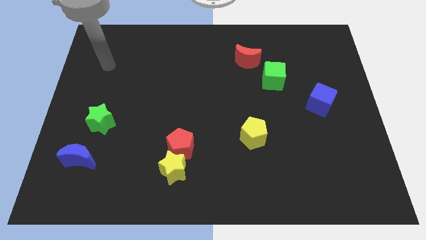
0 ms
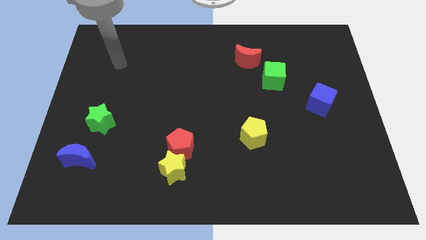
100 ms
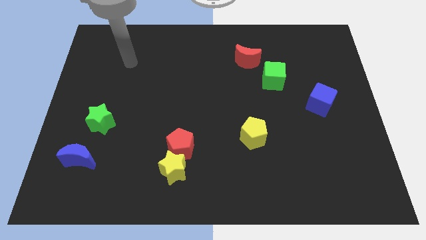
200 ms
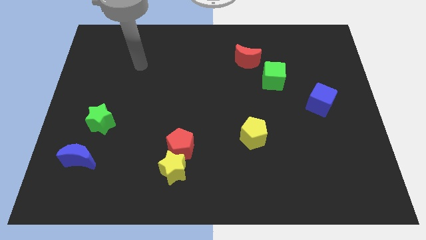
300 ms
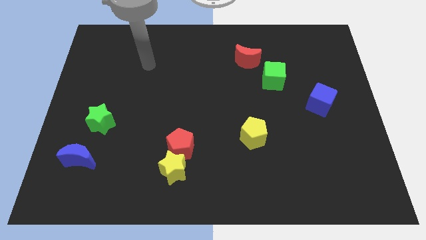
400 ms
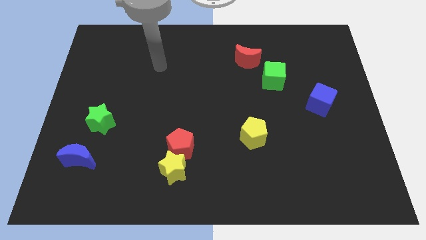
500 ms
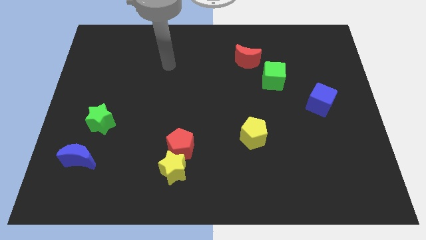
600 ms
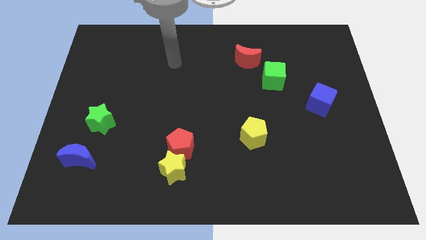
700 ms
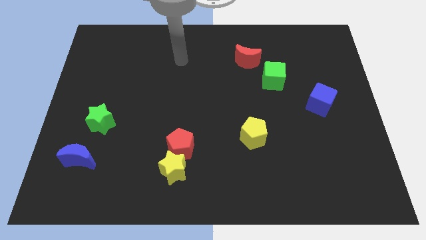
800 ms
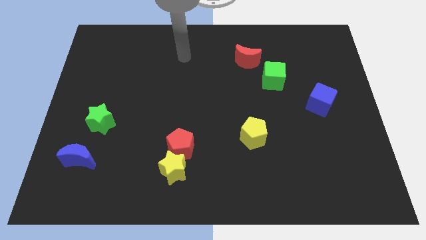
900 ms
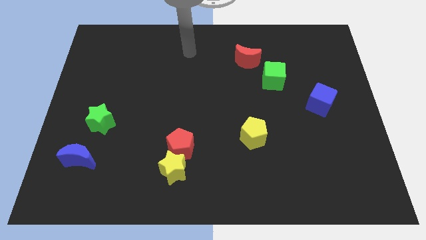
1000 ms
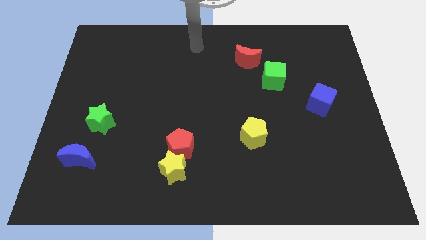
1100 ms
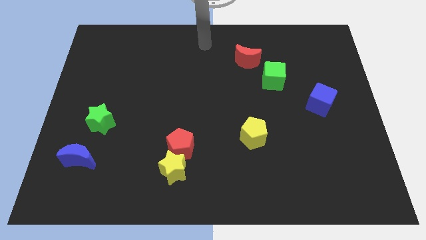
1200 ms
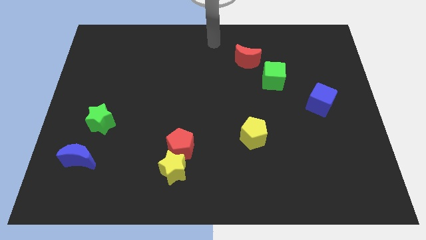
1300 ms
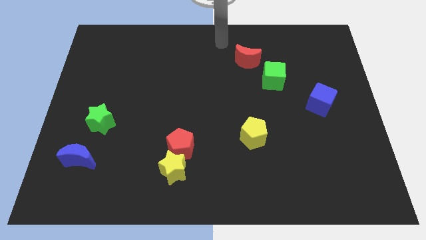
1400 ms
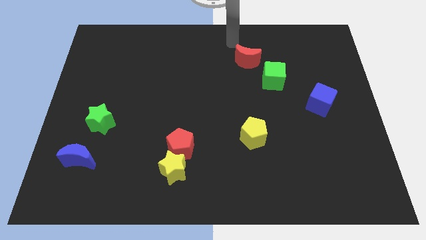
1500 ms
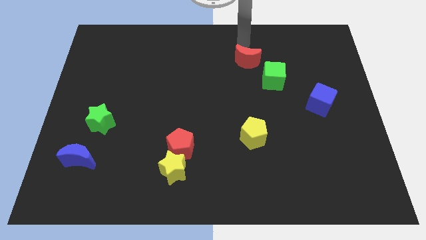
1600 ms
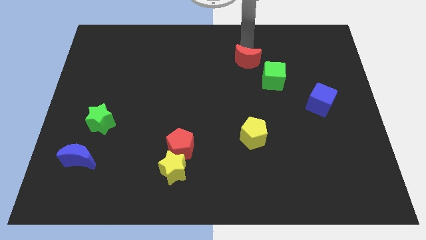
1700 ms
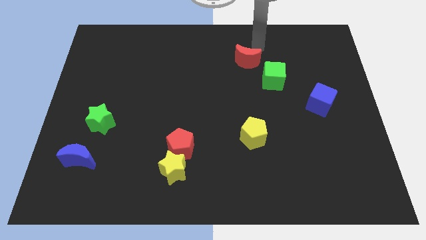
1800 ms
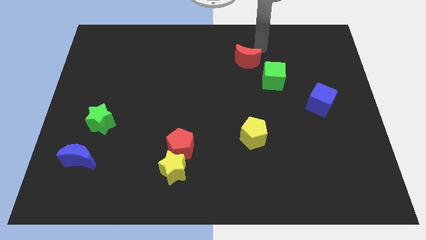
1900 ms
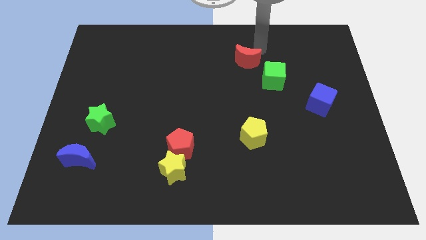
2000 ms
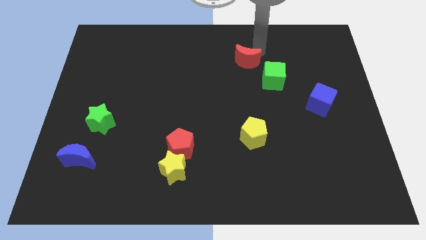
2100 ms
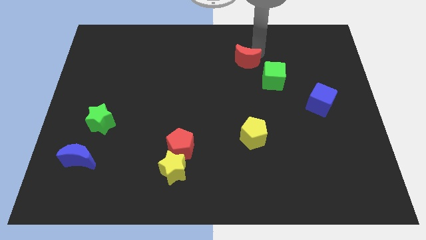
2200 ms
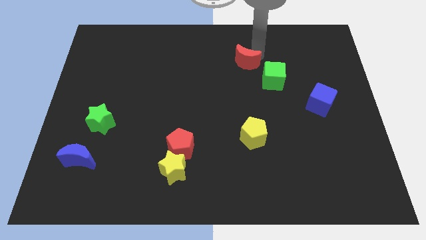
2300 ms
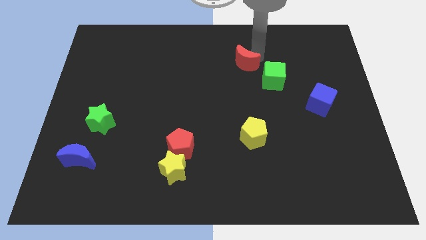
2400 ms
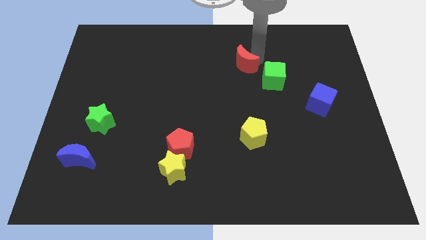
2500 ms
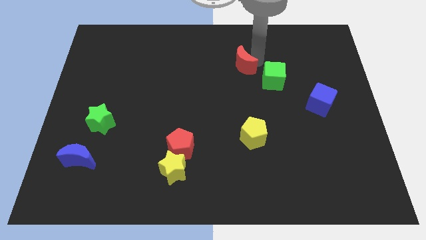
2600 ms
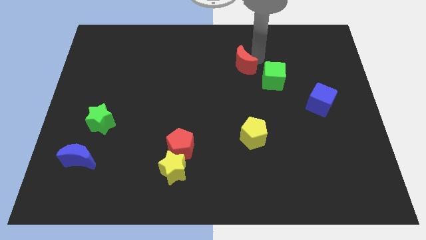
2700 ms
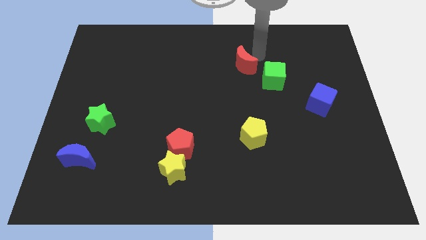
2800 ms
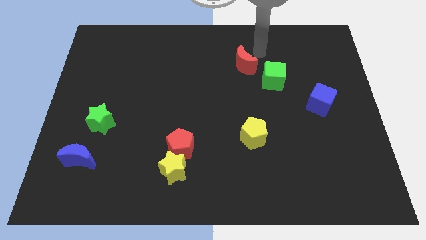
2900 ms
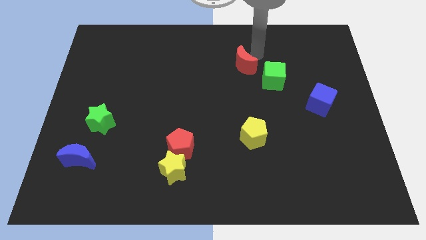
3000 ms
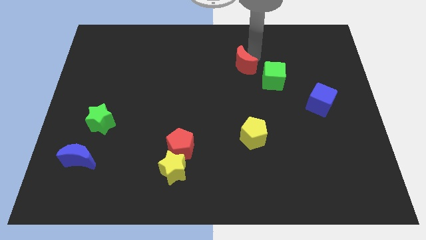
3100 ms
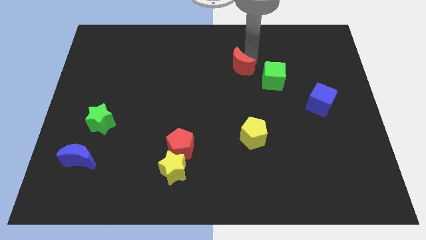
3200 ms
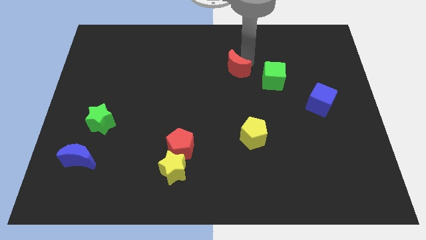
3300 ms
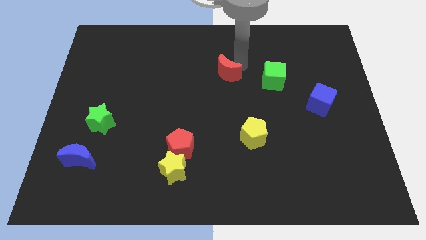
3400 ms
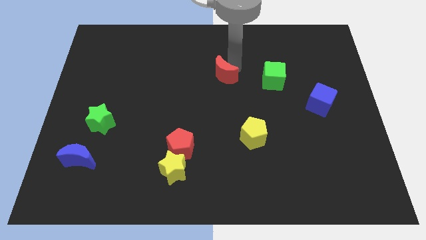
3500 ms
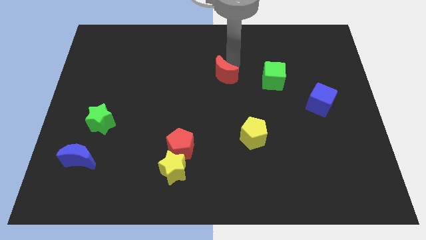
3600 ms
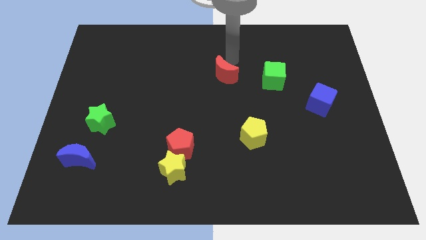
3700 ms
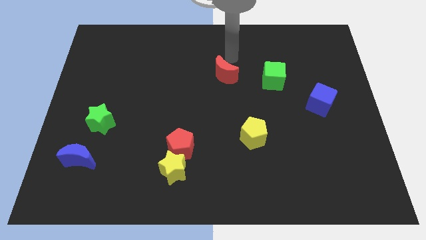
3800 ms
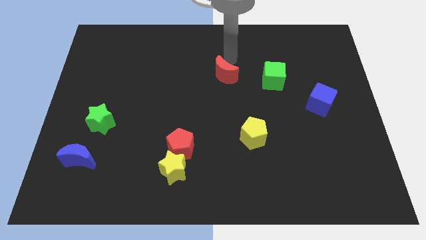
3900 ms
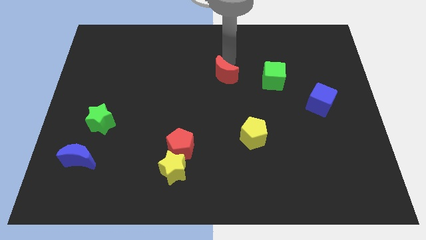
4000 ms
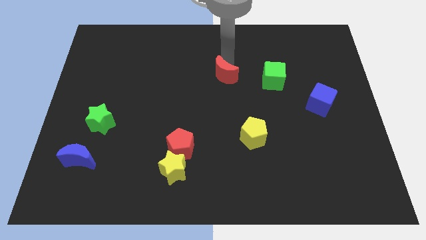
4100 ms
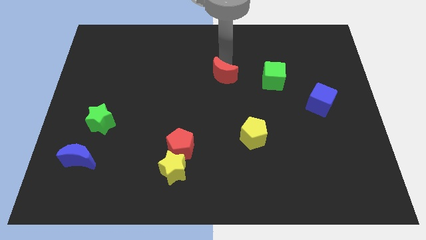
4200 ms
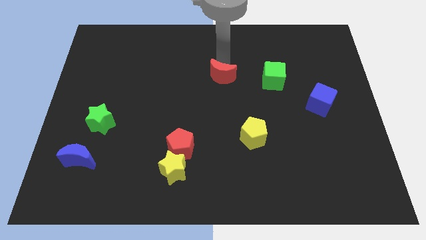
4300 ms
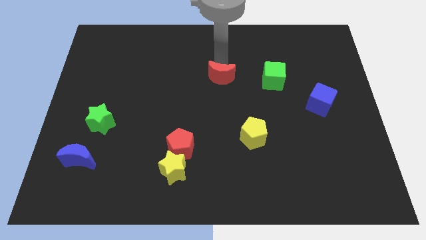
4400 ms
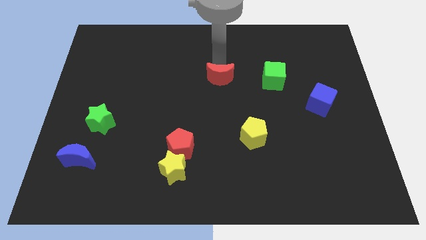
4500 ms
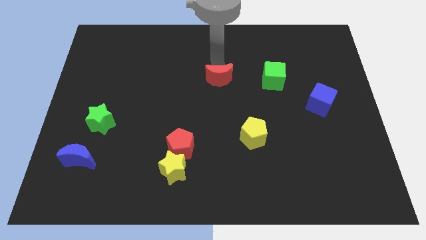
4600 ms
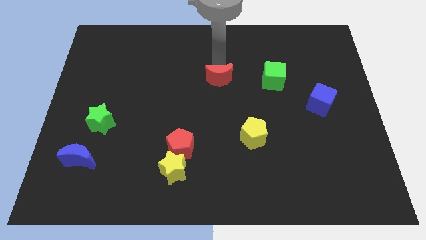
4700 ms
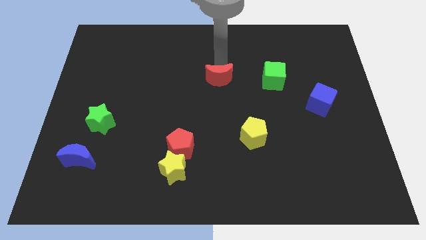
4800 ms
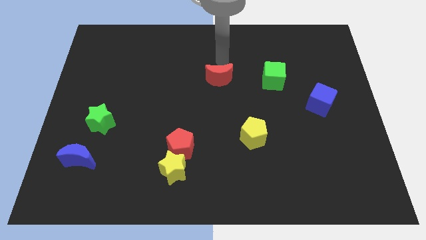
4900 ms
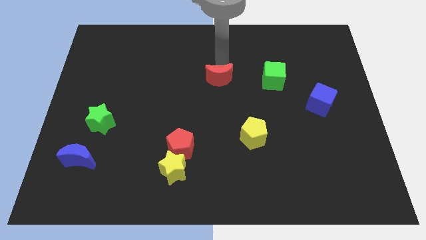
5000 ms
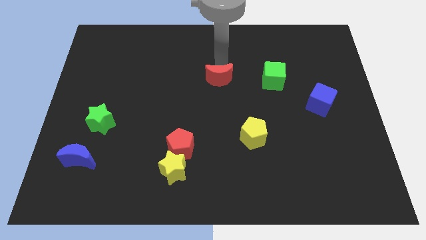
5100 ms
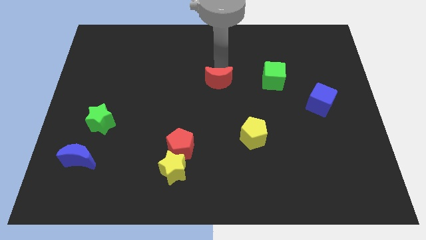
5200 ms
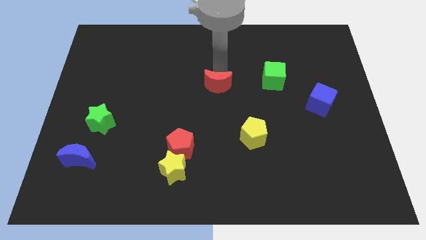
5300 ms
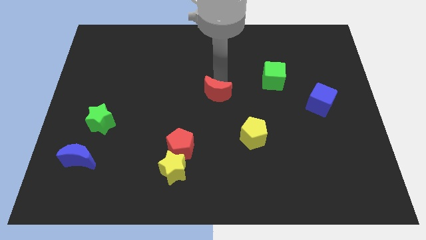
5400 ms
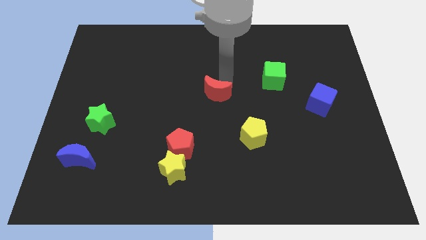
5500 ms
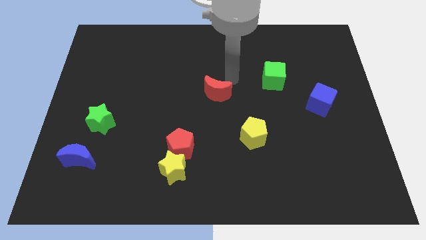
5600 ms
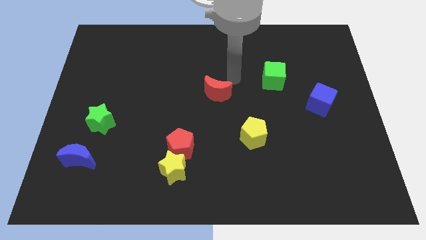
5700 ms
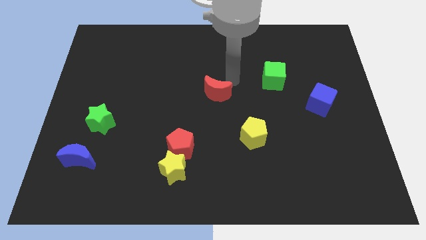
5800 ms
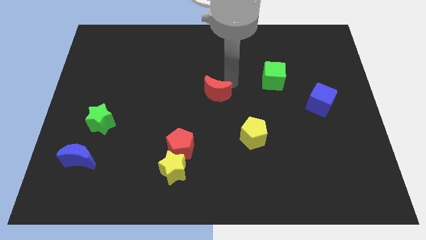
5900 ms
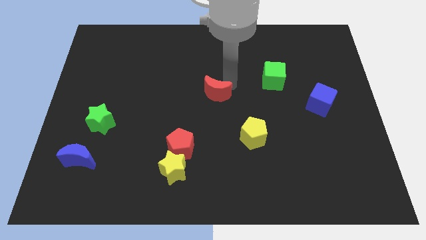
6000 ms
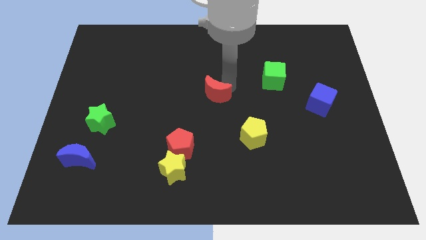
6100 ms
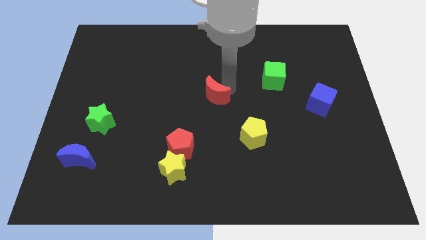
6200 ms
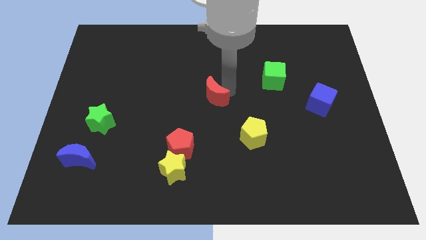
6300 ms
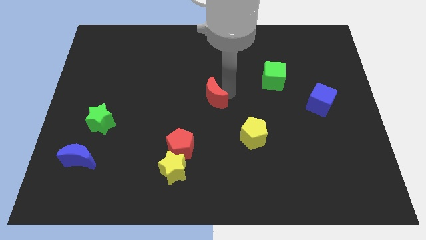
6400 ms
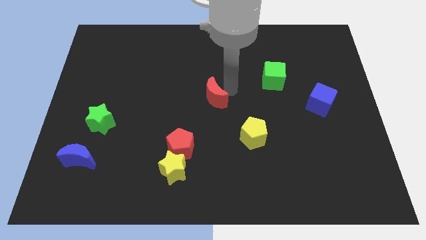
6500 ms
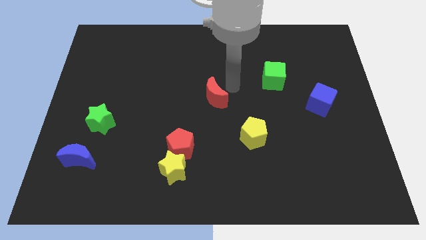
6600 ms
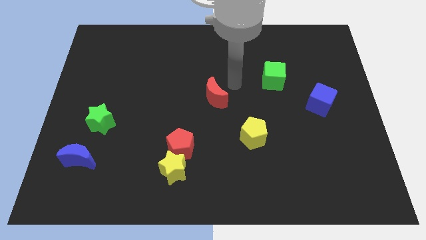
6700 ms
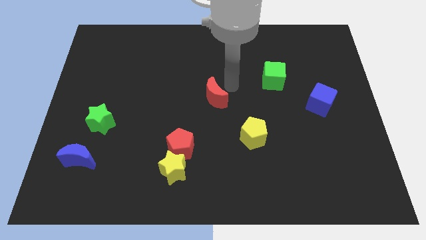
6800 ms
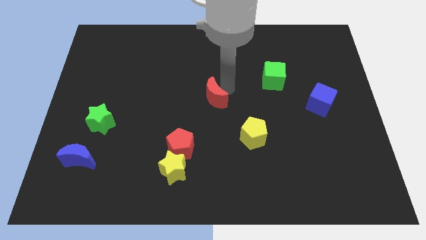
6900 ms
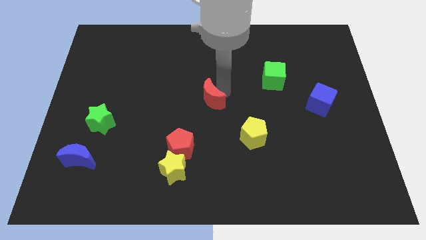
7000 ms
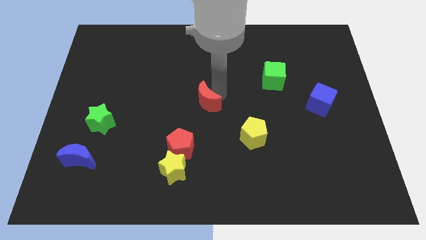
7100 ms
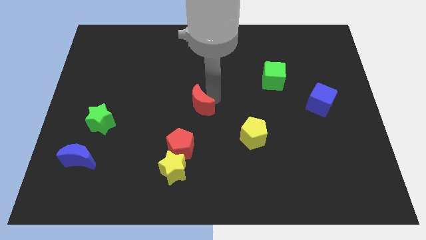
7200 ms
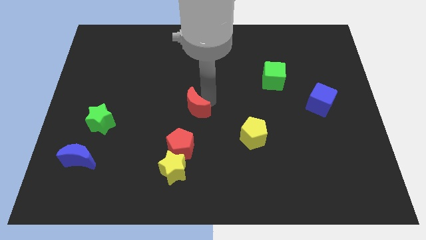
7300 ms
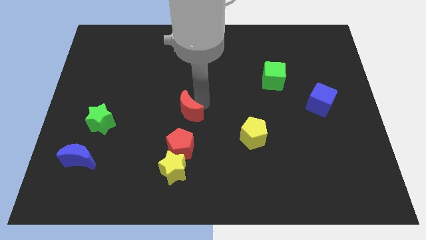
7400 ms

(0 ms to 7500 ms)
push the red moon to the top of the yellow star
